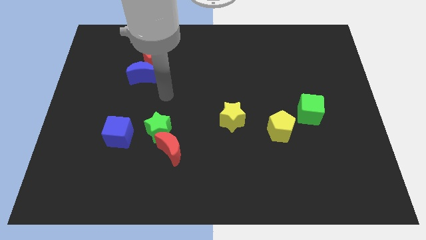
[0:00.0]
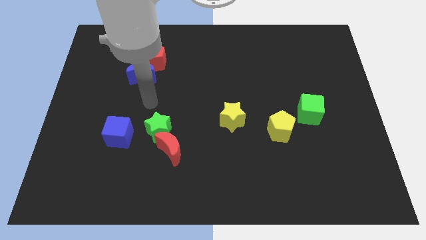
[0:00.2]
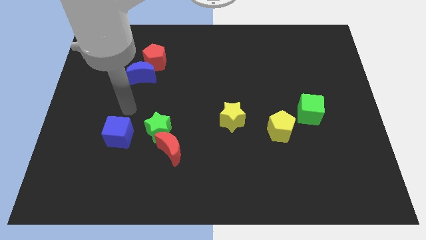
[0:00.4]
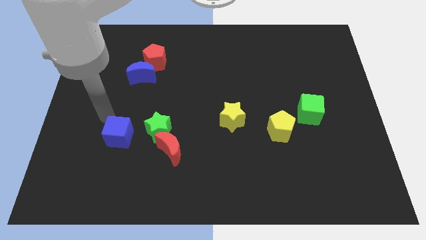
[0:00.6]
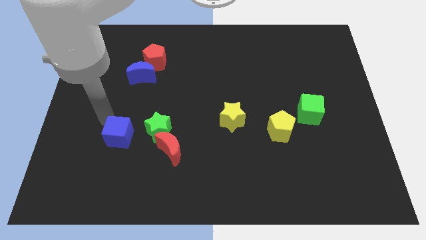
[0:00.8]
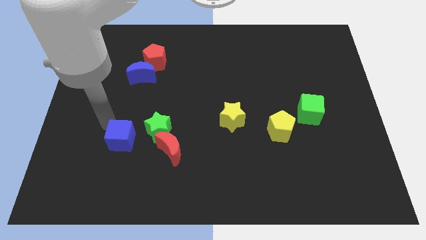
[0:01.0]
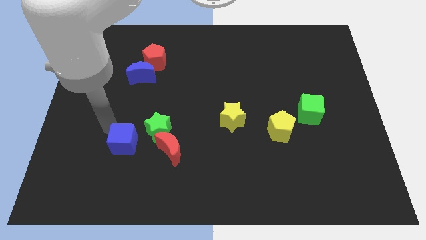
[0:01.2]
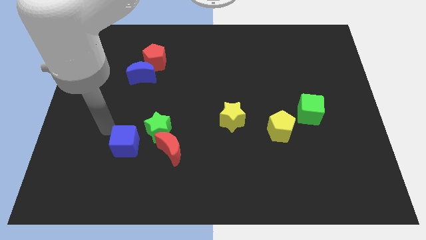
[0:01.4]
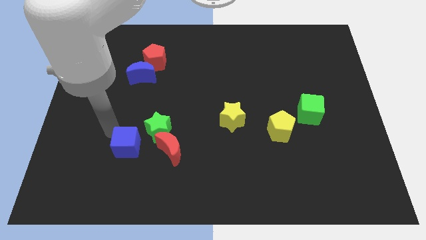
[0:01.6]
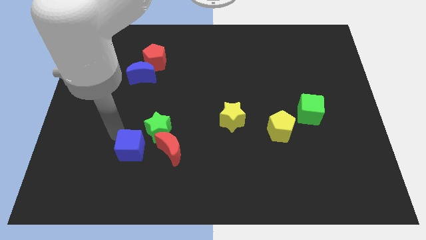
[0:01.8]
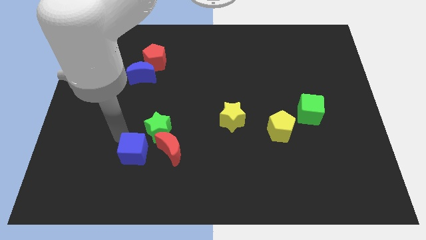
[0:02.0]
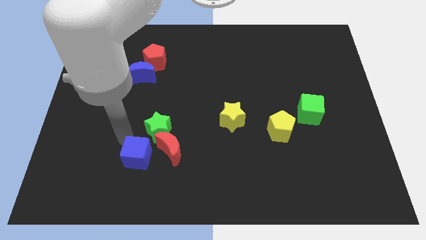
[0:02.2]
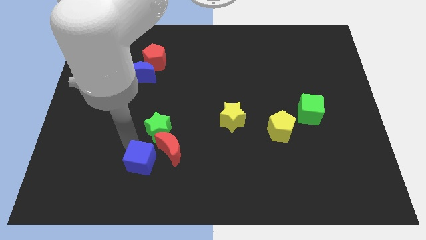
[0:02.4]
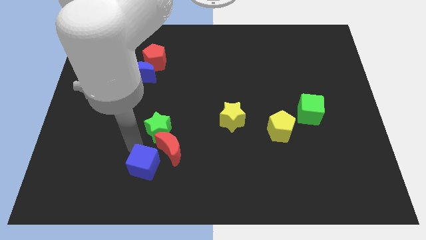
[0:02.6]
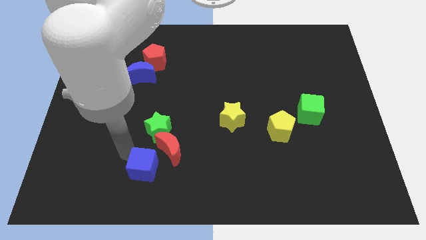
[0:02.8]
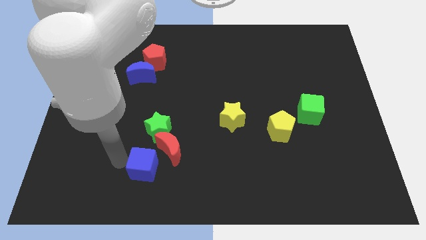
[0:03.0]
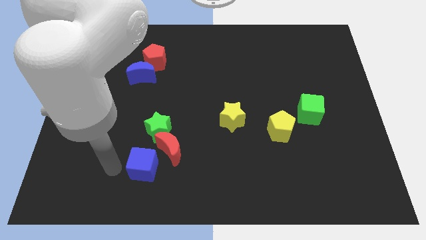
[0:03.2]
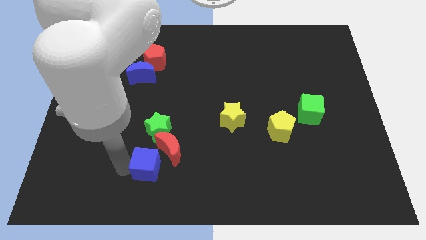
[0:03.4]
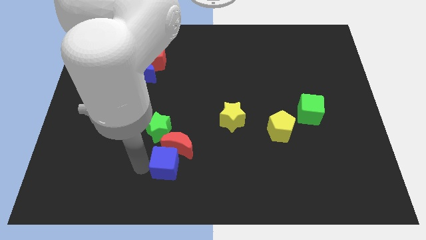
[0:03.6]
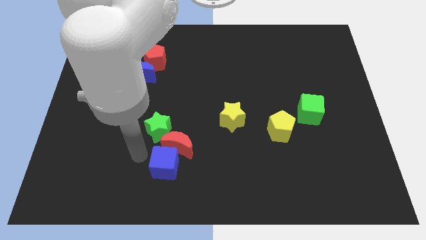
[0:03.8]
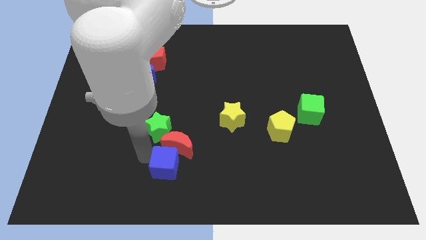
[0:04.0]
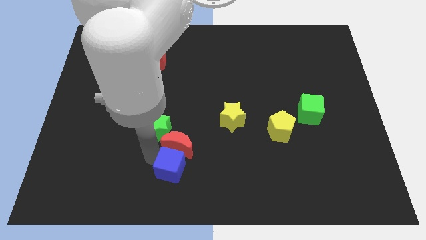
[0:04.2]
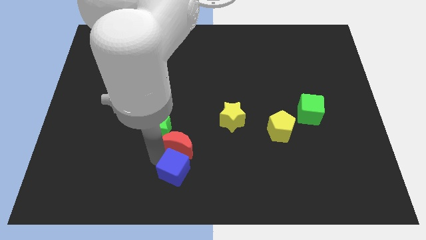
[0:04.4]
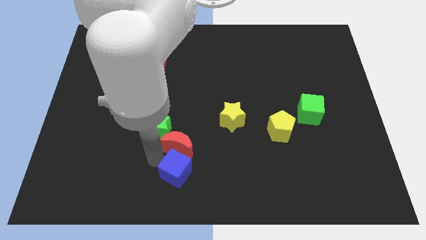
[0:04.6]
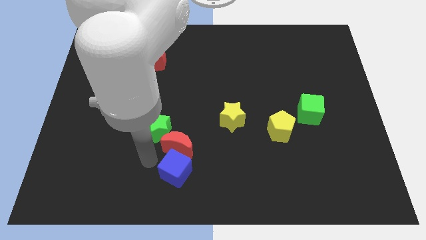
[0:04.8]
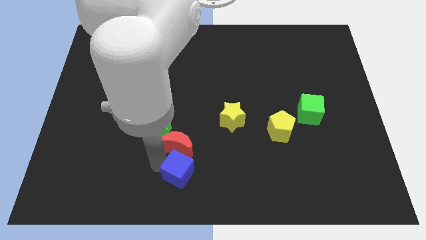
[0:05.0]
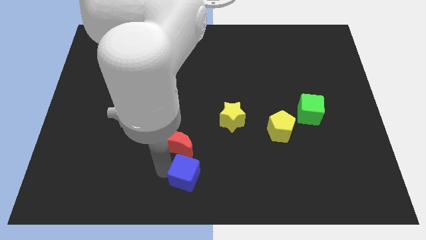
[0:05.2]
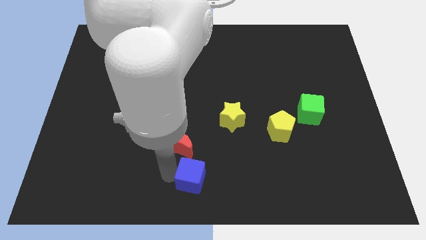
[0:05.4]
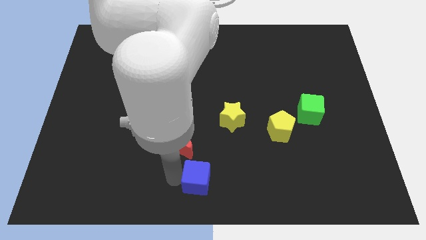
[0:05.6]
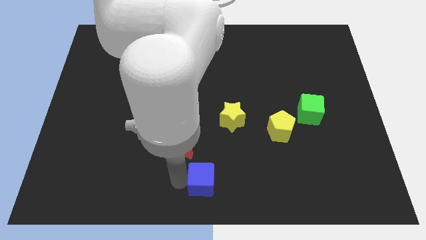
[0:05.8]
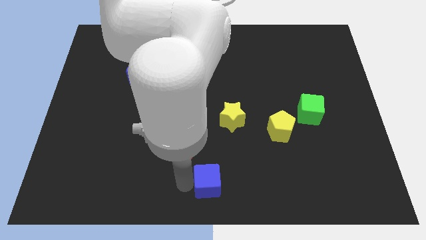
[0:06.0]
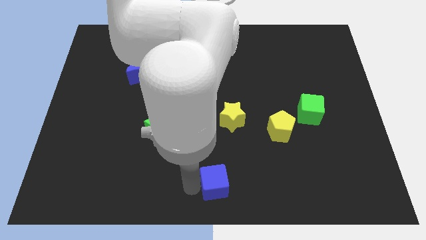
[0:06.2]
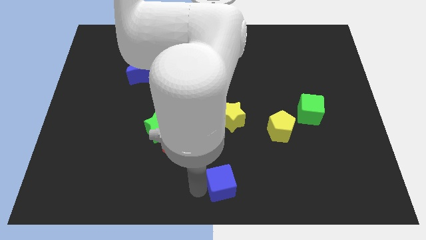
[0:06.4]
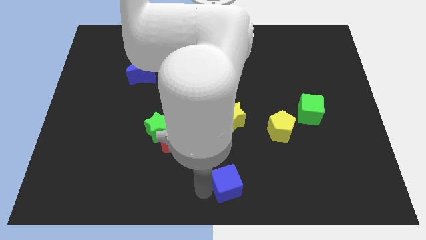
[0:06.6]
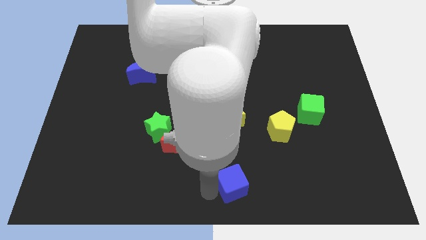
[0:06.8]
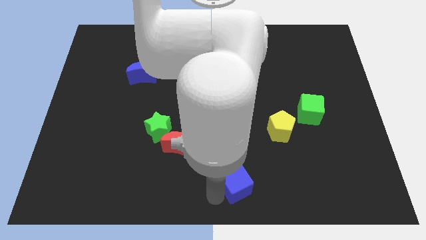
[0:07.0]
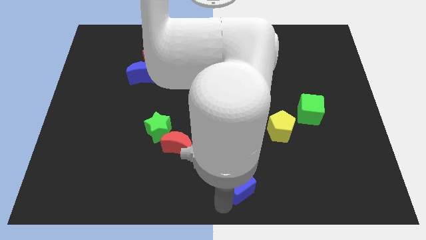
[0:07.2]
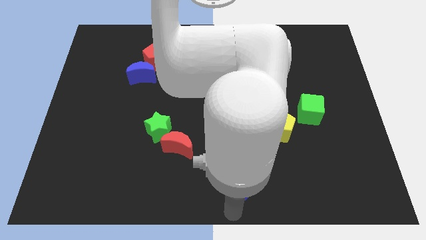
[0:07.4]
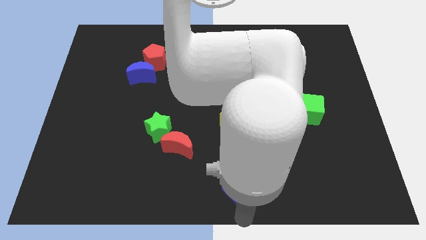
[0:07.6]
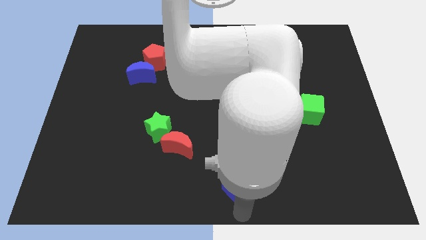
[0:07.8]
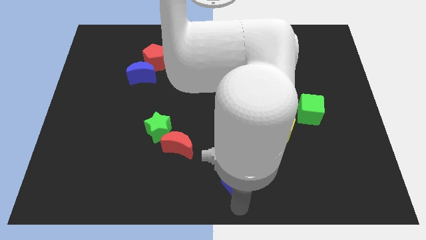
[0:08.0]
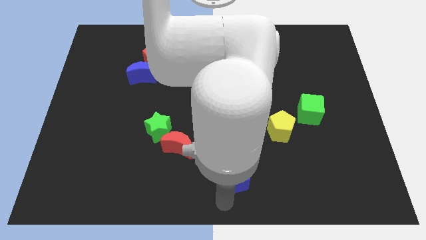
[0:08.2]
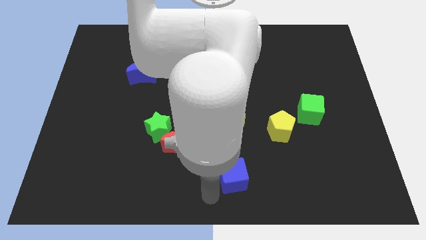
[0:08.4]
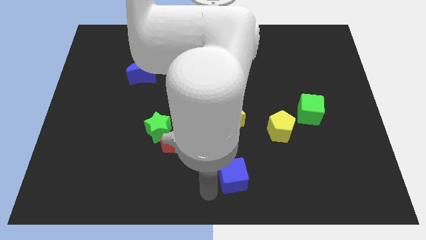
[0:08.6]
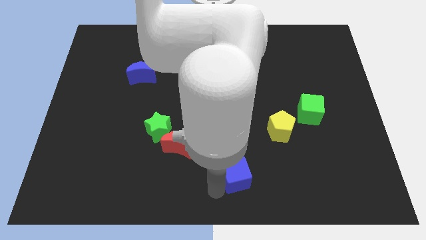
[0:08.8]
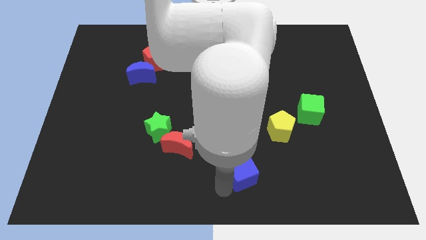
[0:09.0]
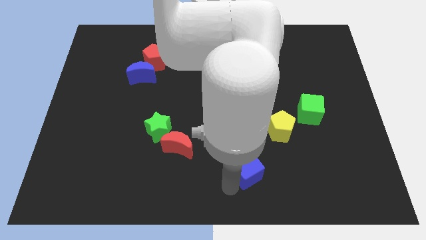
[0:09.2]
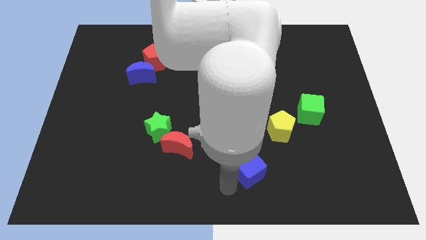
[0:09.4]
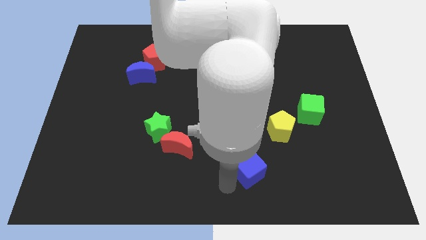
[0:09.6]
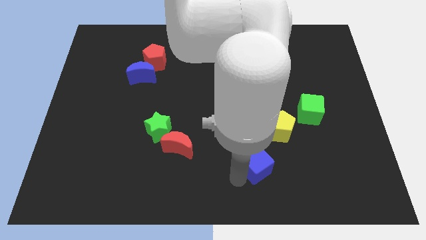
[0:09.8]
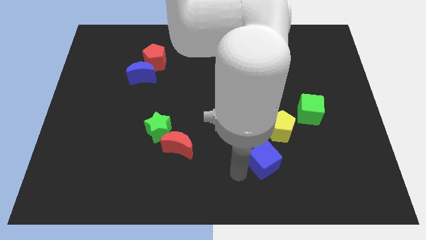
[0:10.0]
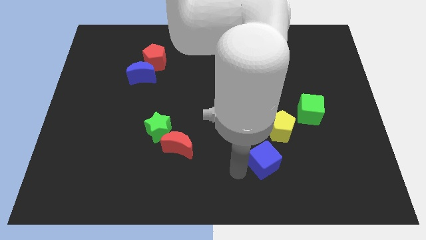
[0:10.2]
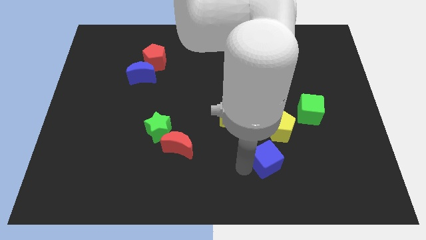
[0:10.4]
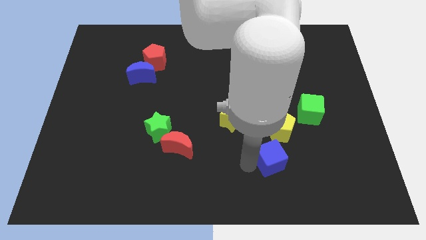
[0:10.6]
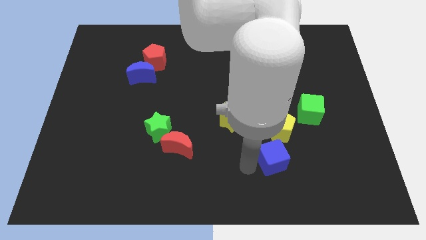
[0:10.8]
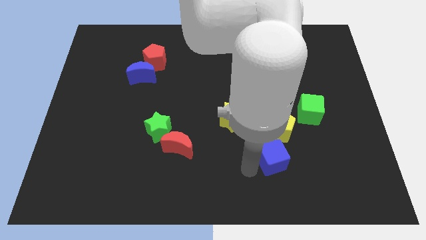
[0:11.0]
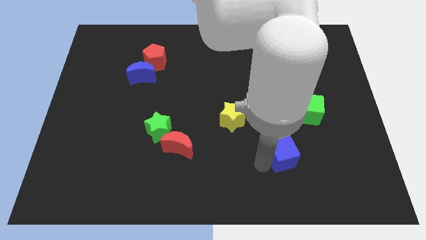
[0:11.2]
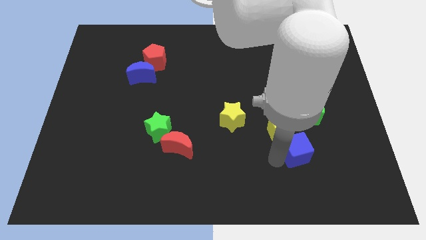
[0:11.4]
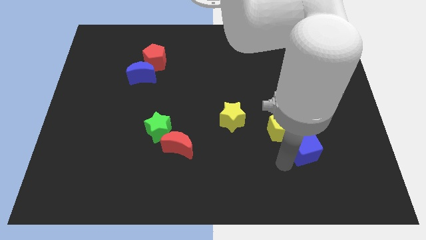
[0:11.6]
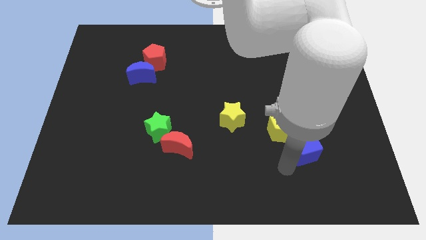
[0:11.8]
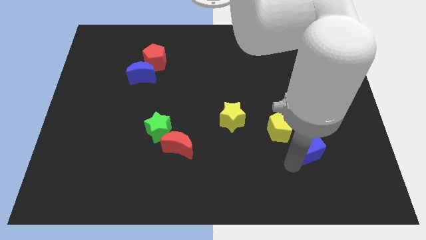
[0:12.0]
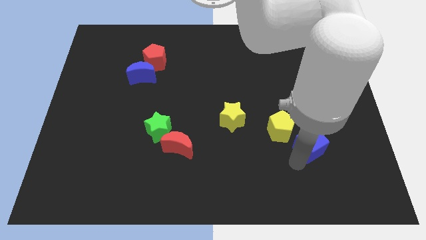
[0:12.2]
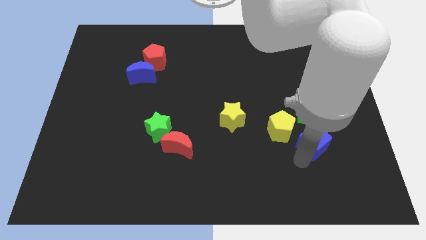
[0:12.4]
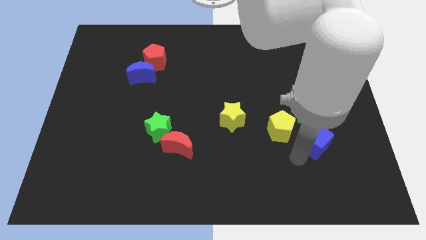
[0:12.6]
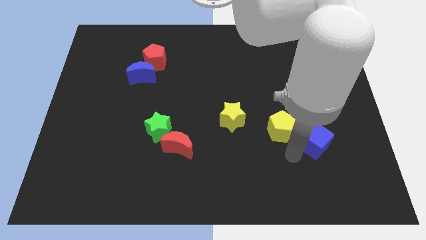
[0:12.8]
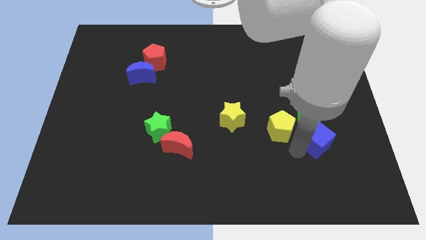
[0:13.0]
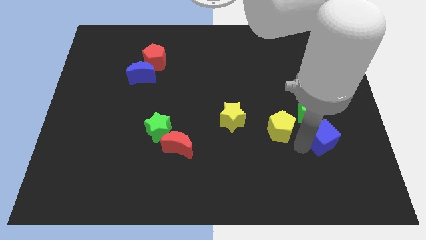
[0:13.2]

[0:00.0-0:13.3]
put the blue cube to the bottom right of the green cube

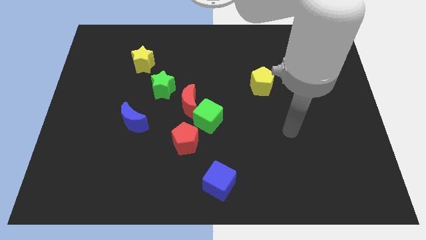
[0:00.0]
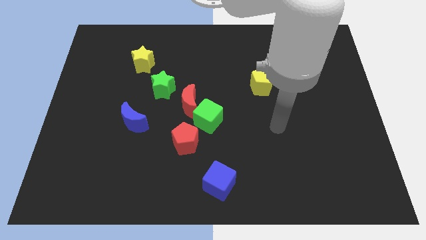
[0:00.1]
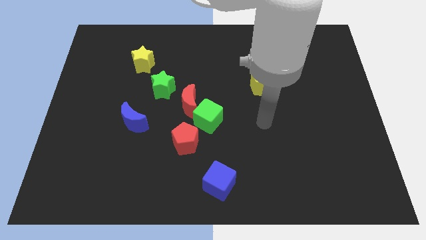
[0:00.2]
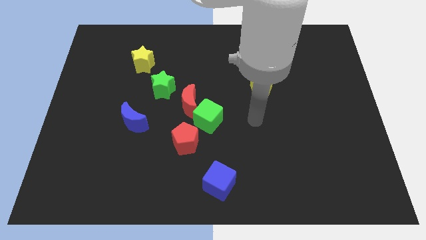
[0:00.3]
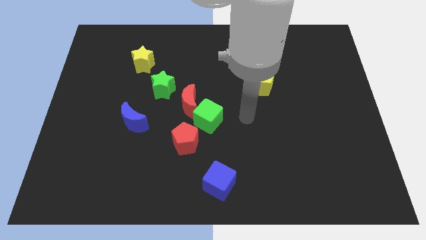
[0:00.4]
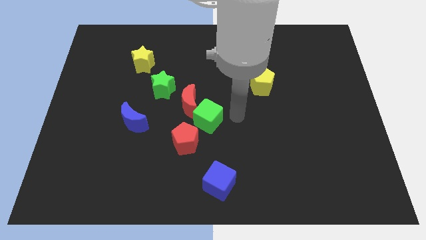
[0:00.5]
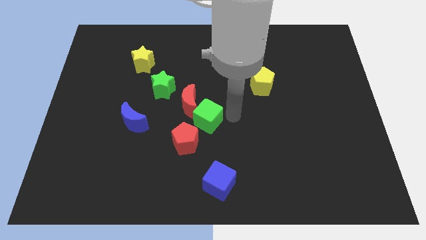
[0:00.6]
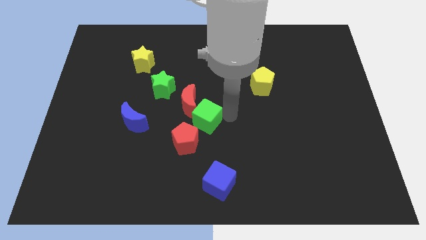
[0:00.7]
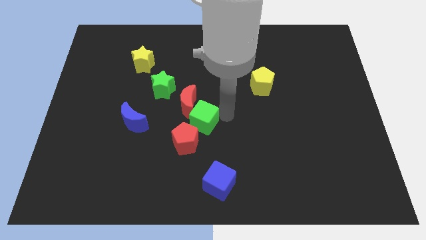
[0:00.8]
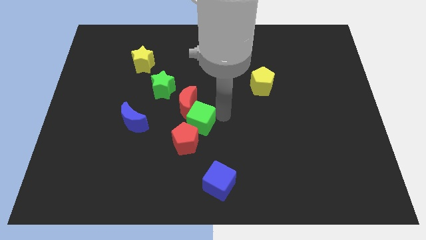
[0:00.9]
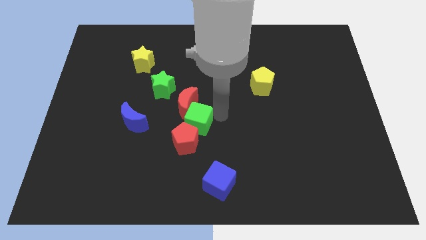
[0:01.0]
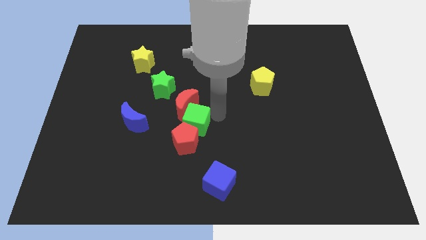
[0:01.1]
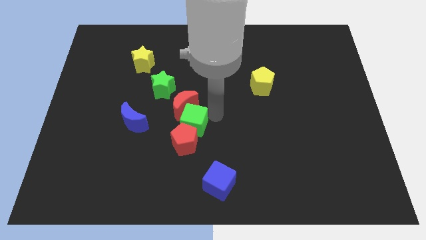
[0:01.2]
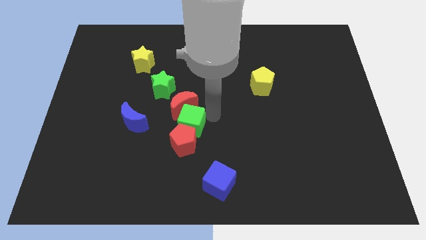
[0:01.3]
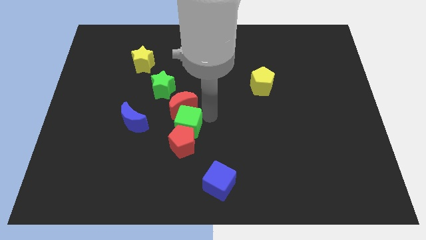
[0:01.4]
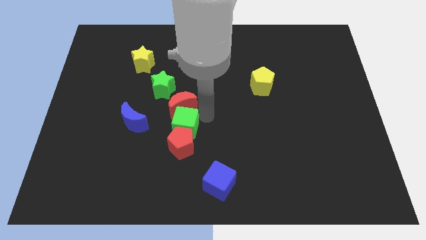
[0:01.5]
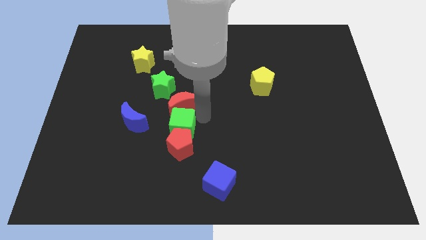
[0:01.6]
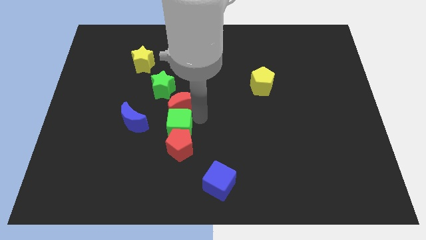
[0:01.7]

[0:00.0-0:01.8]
put the green cube to the bottom side of the green star

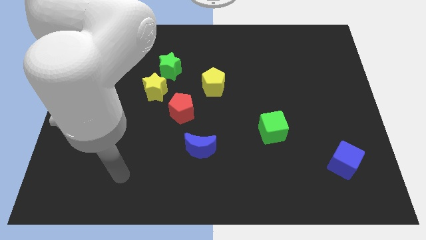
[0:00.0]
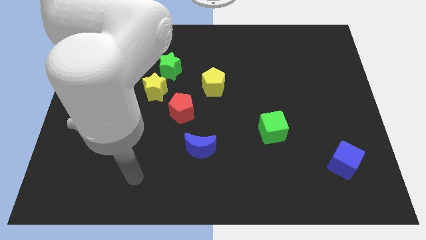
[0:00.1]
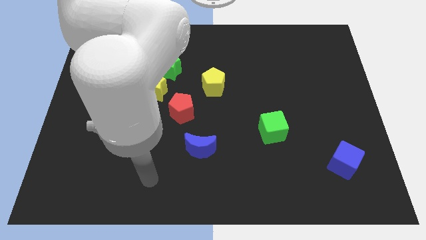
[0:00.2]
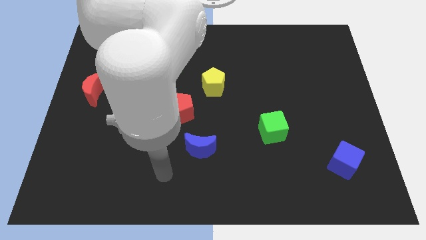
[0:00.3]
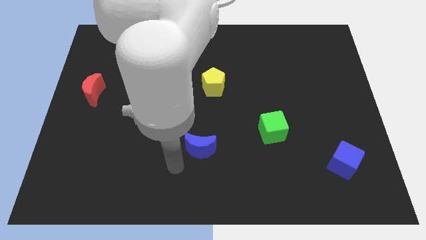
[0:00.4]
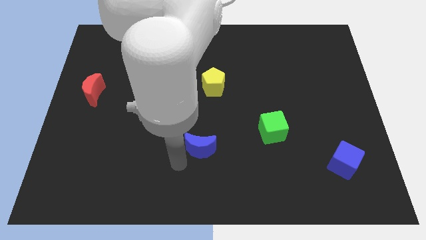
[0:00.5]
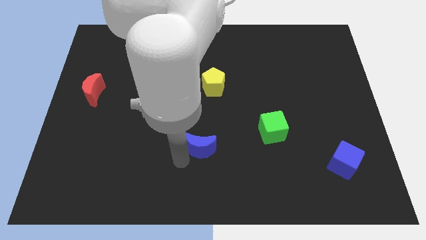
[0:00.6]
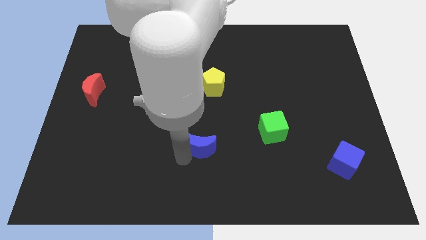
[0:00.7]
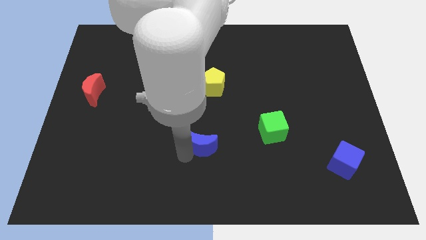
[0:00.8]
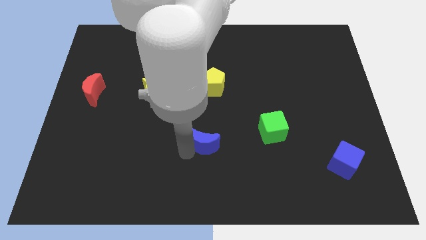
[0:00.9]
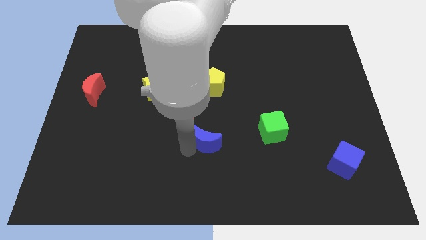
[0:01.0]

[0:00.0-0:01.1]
put the blue moon just left of the green cube
